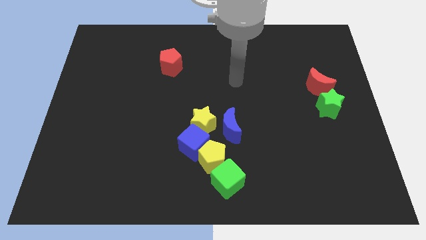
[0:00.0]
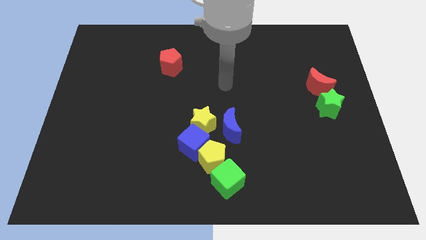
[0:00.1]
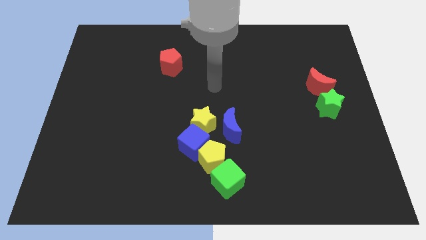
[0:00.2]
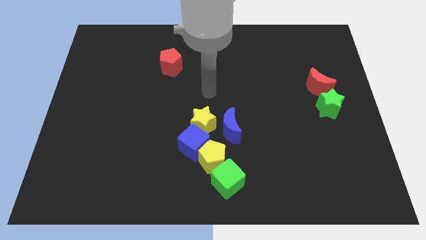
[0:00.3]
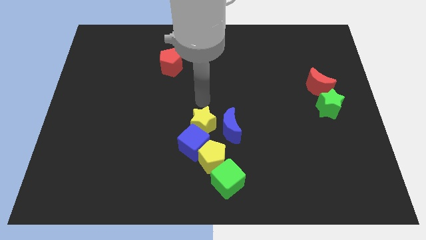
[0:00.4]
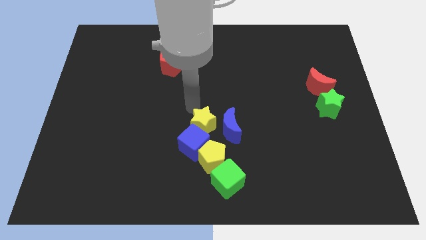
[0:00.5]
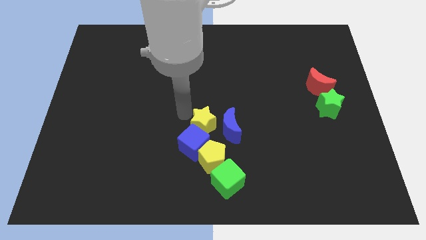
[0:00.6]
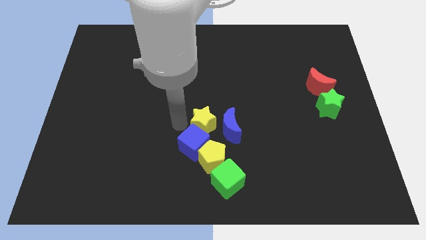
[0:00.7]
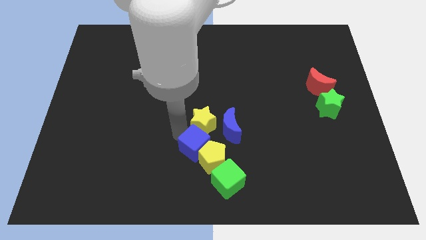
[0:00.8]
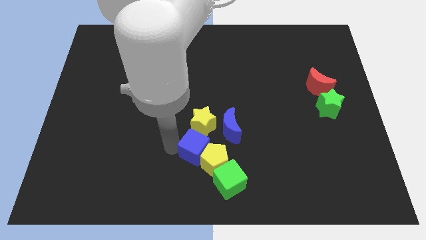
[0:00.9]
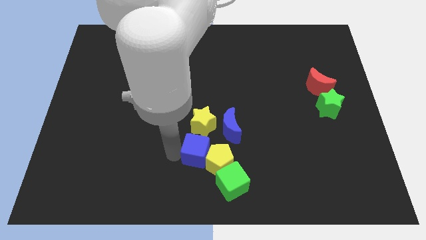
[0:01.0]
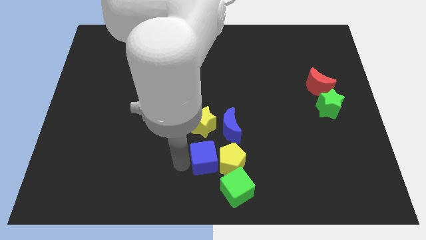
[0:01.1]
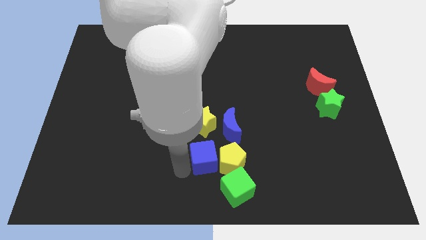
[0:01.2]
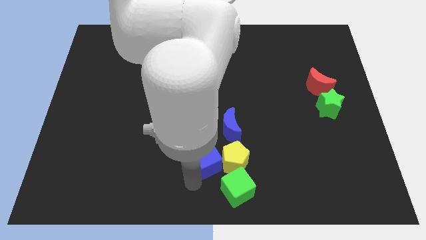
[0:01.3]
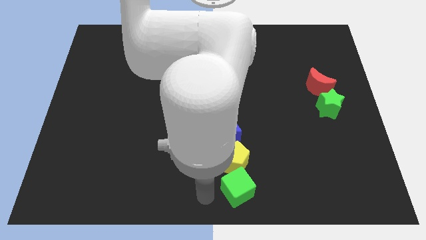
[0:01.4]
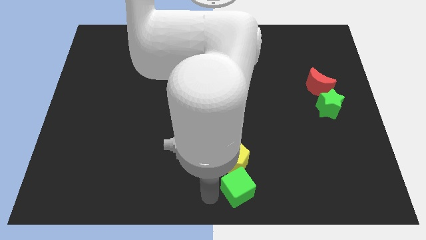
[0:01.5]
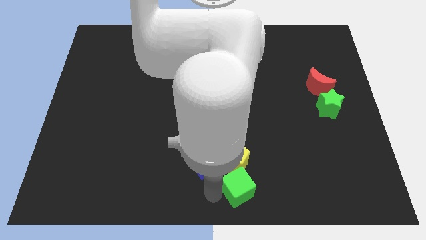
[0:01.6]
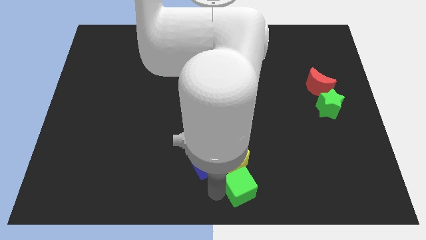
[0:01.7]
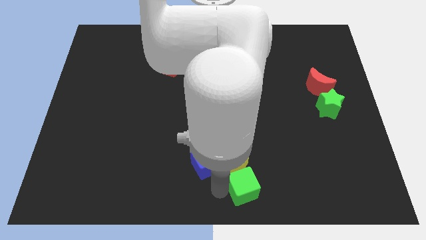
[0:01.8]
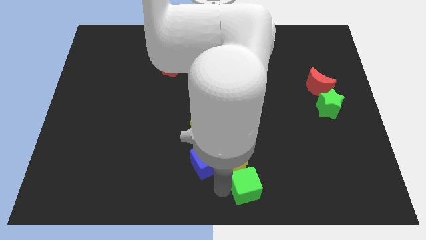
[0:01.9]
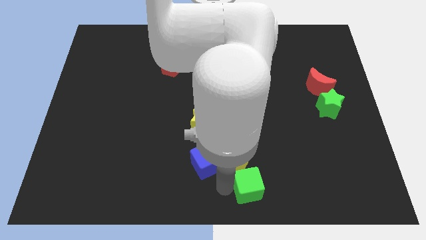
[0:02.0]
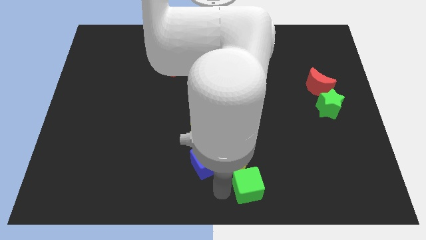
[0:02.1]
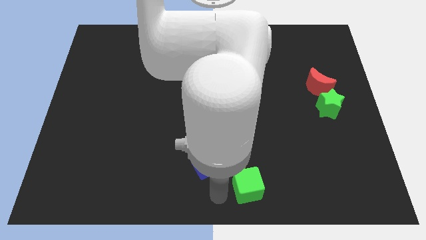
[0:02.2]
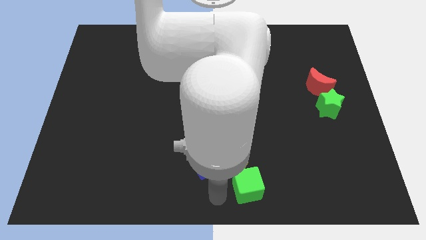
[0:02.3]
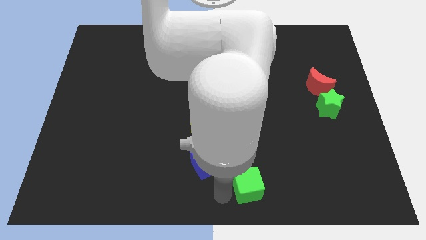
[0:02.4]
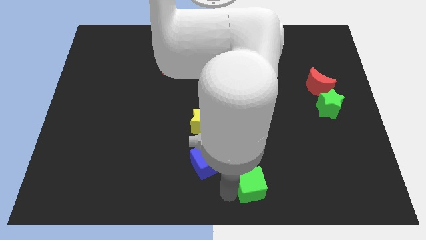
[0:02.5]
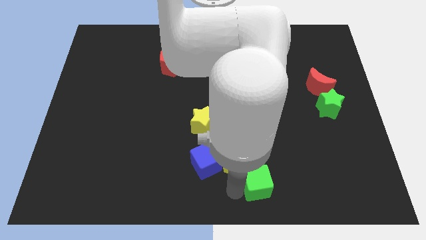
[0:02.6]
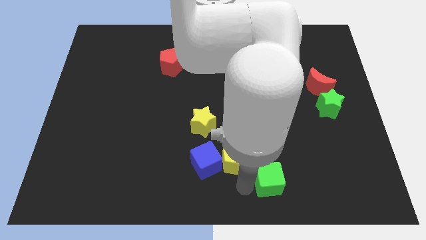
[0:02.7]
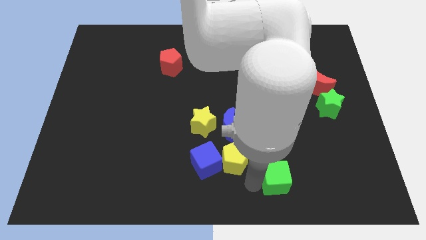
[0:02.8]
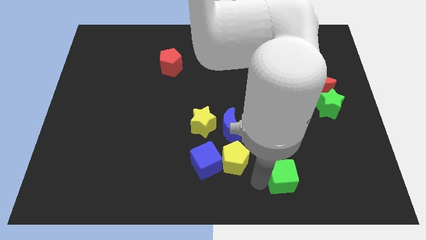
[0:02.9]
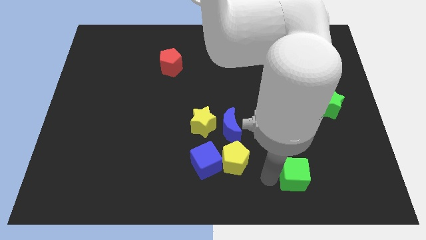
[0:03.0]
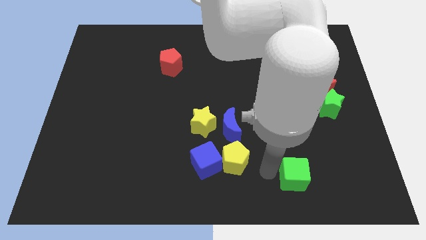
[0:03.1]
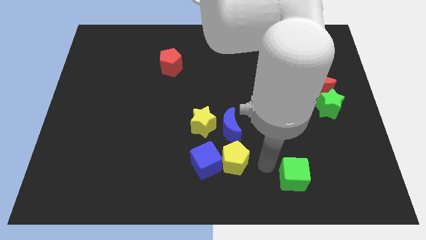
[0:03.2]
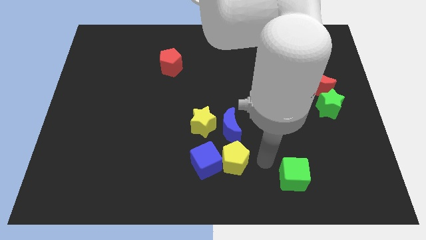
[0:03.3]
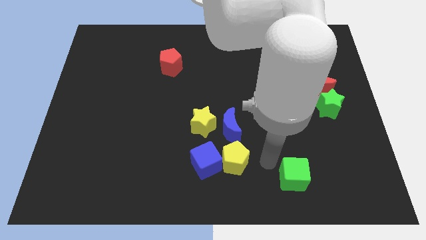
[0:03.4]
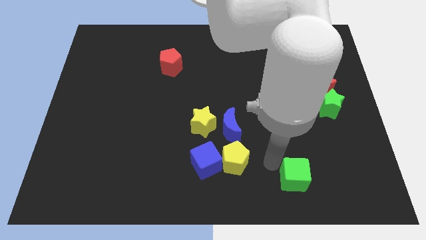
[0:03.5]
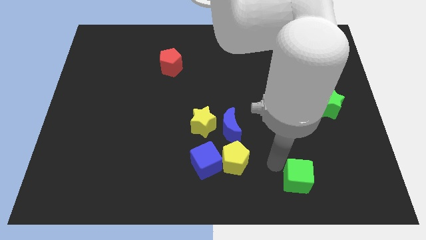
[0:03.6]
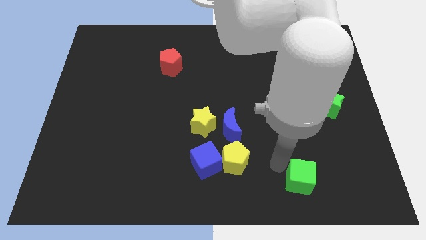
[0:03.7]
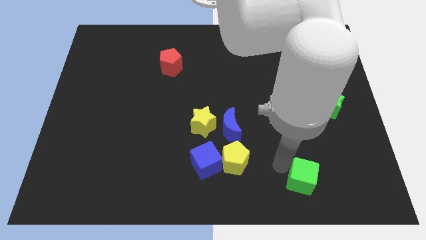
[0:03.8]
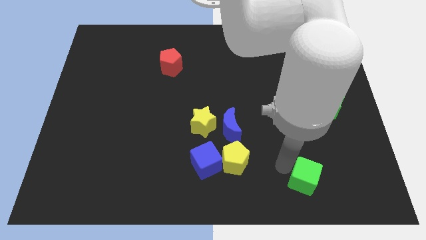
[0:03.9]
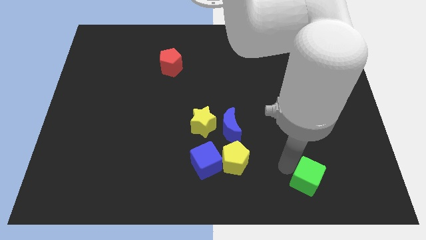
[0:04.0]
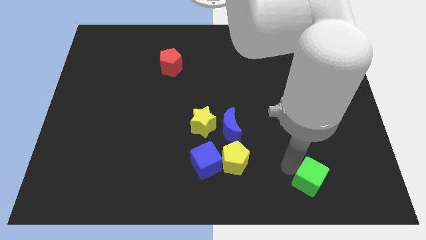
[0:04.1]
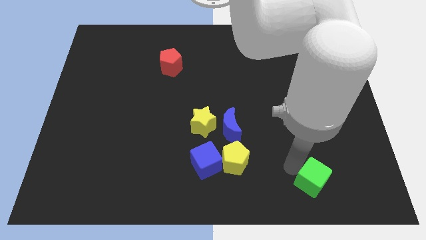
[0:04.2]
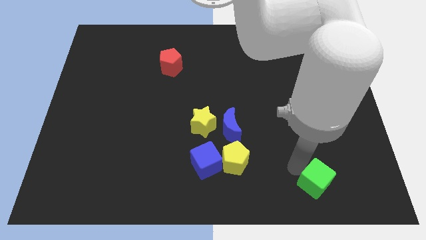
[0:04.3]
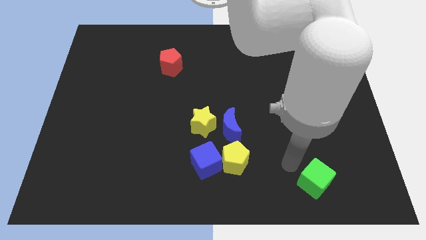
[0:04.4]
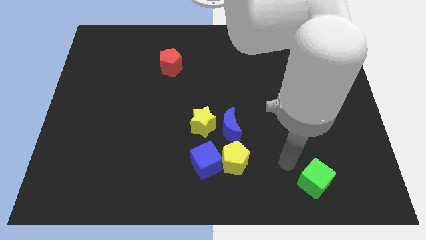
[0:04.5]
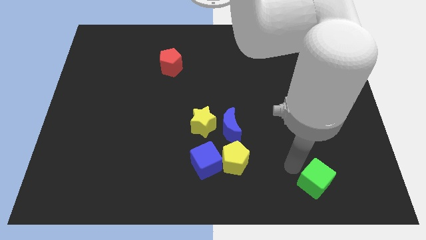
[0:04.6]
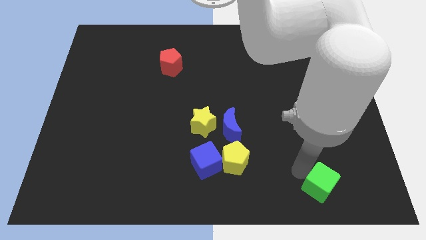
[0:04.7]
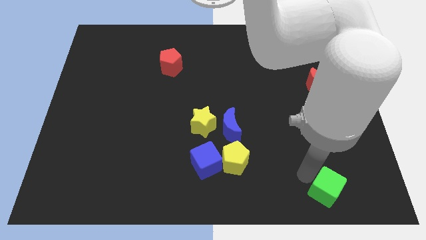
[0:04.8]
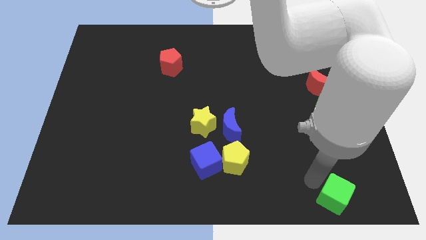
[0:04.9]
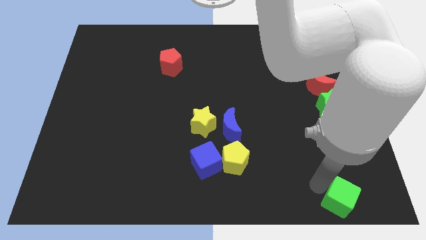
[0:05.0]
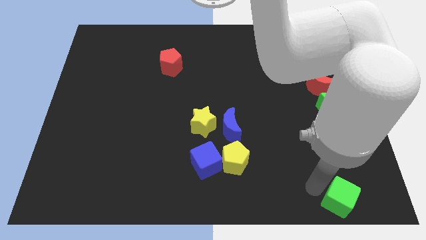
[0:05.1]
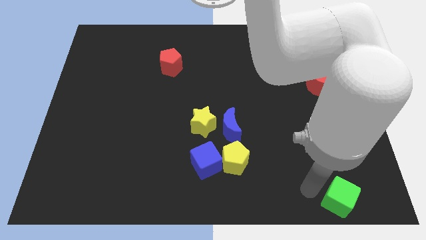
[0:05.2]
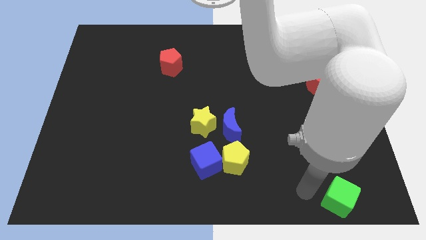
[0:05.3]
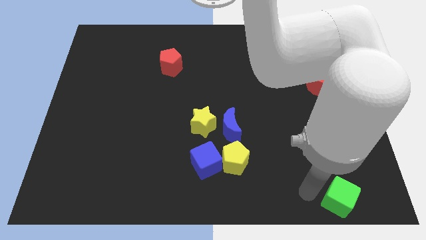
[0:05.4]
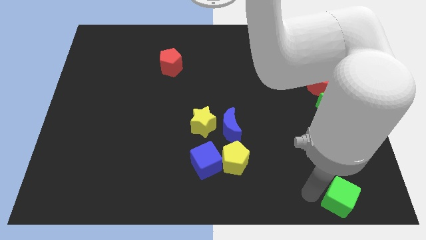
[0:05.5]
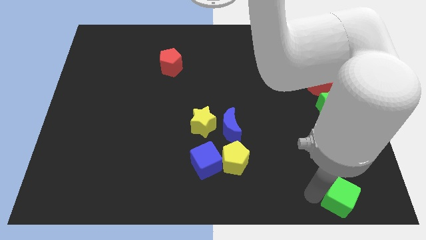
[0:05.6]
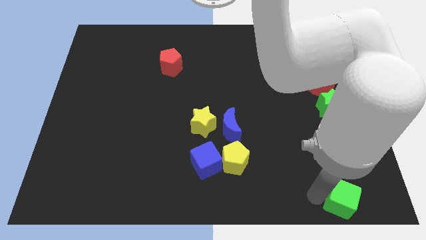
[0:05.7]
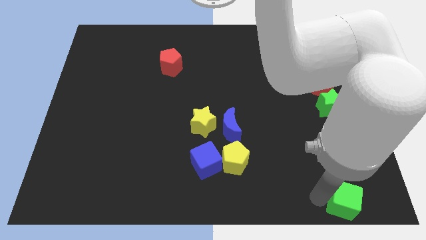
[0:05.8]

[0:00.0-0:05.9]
move the green cube to the bottom right

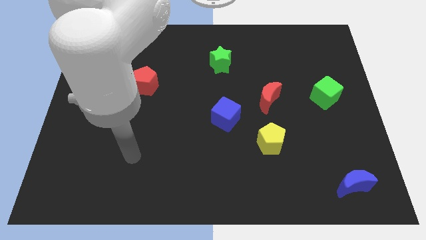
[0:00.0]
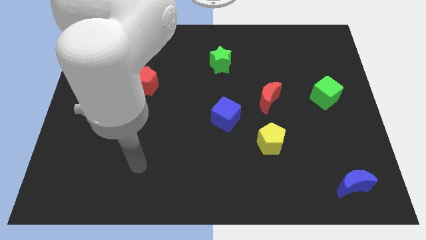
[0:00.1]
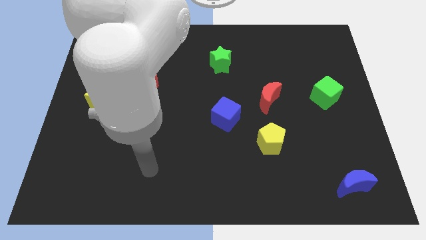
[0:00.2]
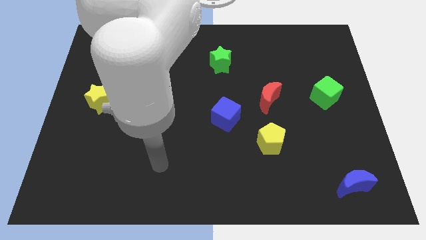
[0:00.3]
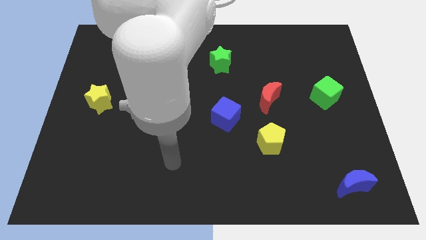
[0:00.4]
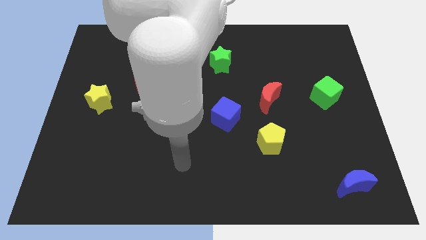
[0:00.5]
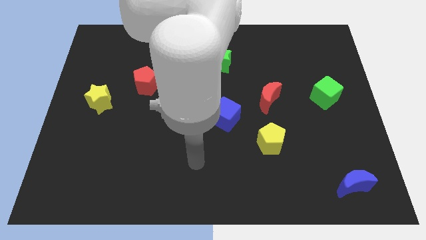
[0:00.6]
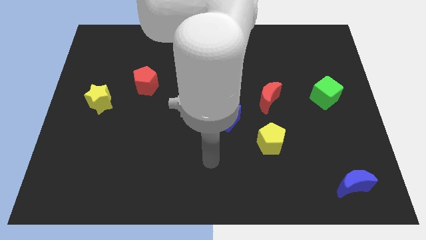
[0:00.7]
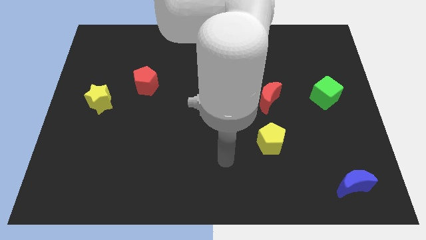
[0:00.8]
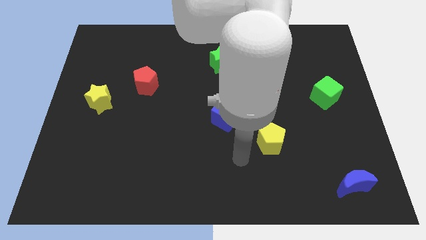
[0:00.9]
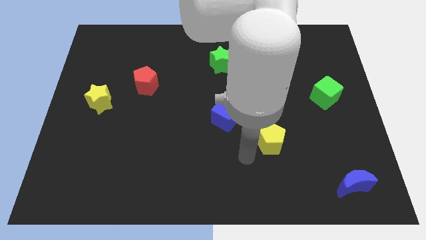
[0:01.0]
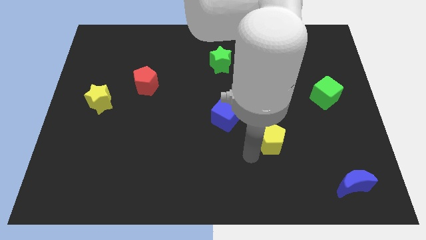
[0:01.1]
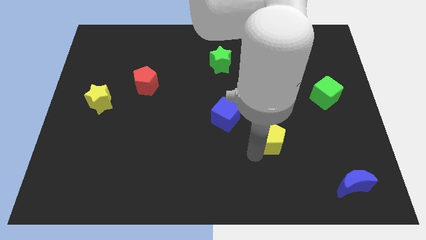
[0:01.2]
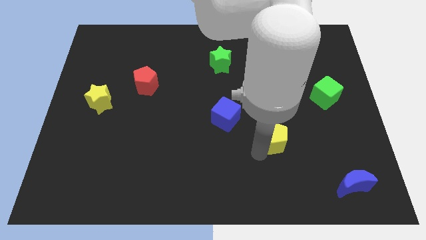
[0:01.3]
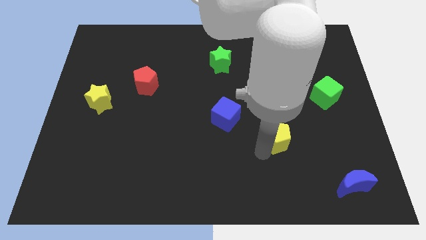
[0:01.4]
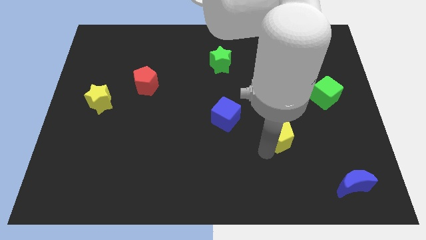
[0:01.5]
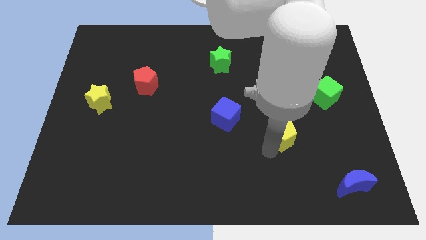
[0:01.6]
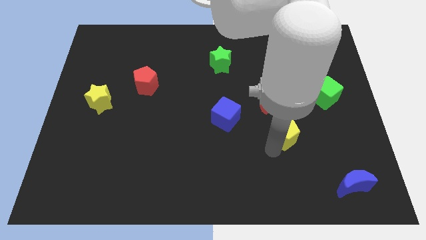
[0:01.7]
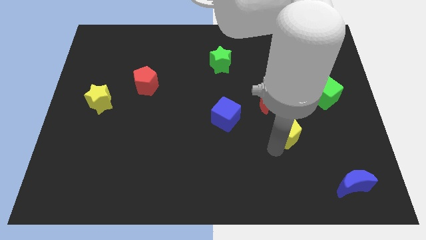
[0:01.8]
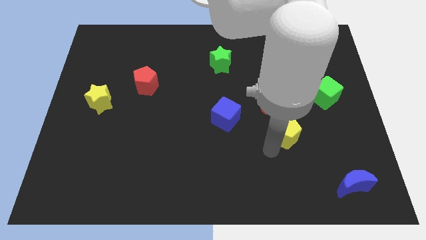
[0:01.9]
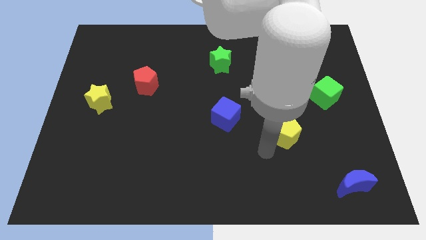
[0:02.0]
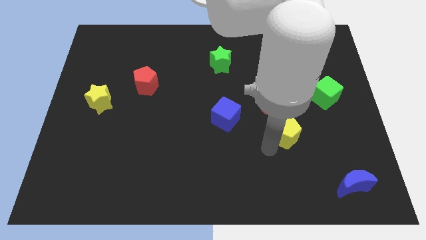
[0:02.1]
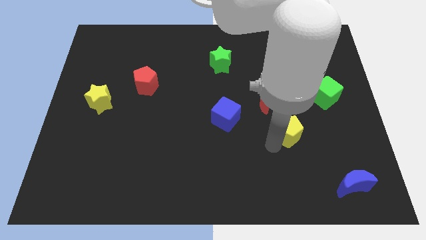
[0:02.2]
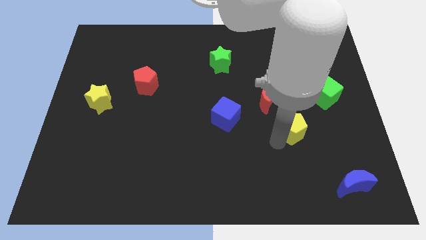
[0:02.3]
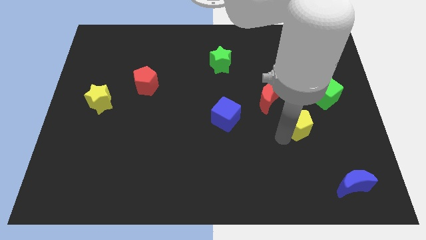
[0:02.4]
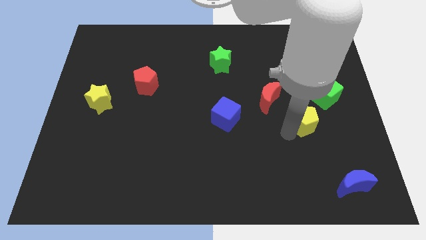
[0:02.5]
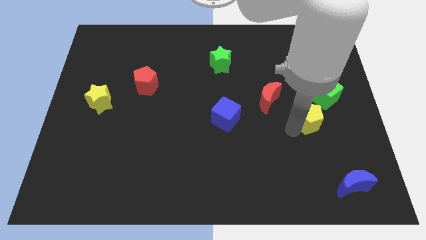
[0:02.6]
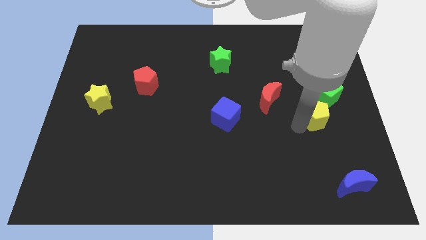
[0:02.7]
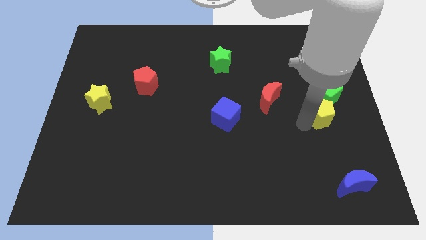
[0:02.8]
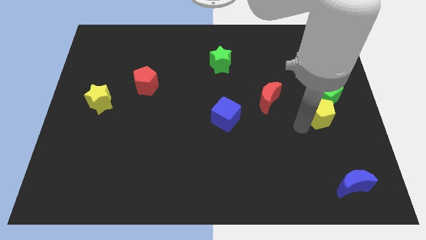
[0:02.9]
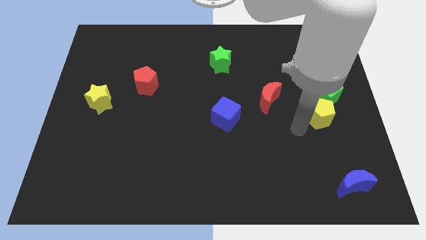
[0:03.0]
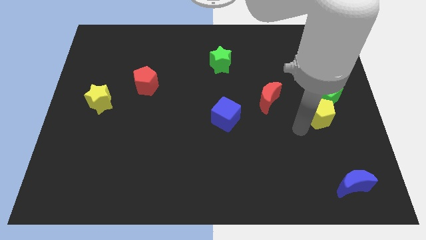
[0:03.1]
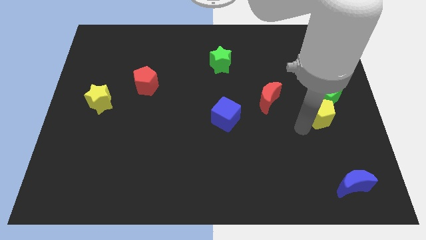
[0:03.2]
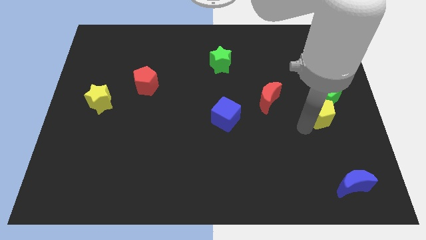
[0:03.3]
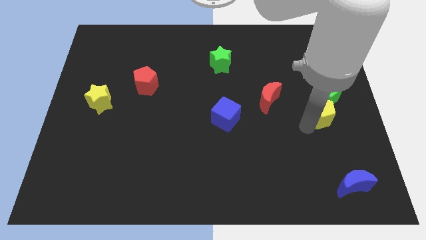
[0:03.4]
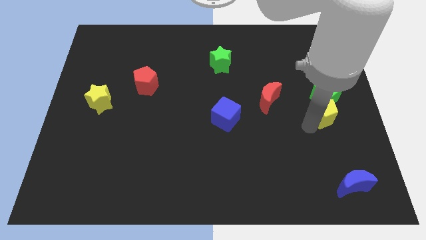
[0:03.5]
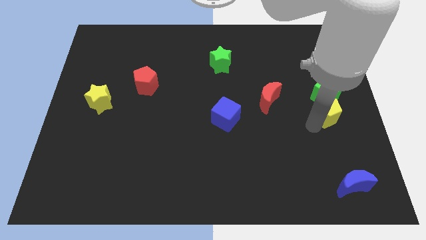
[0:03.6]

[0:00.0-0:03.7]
slide the yellow pentagon to the right side
